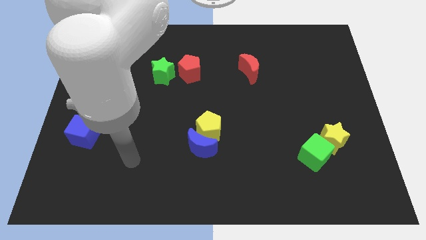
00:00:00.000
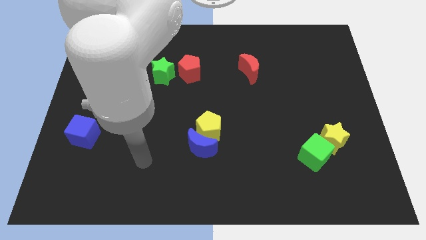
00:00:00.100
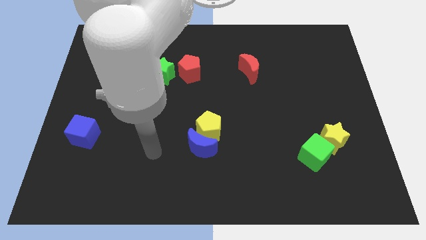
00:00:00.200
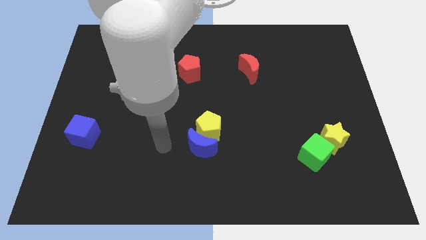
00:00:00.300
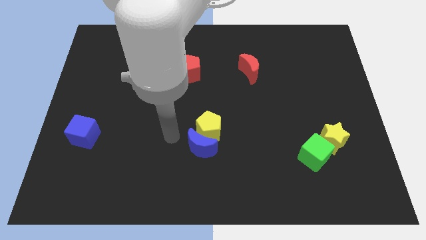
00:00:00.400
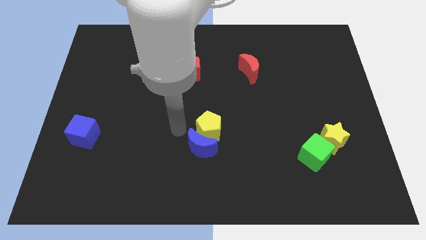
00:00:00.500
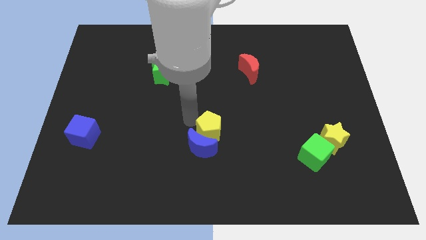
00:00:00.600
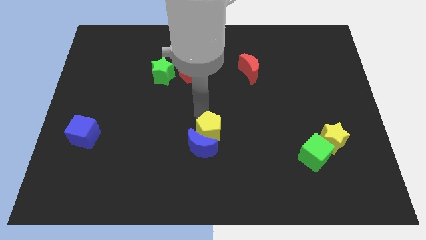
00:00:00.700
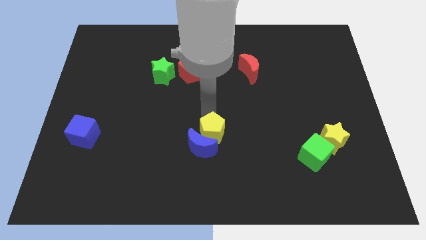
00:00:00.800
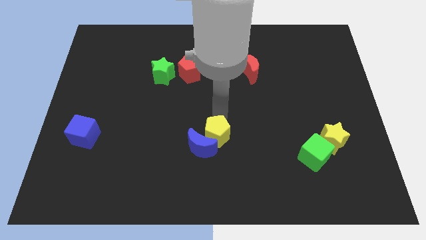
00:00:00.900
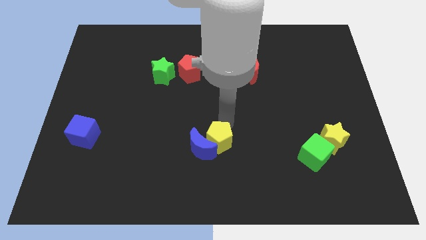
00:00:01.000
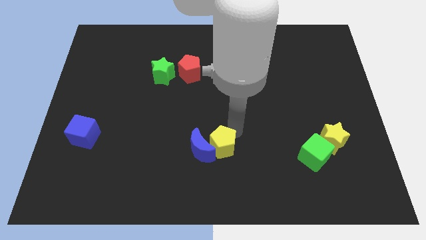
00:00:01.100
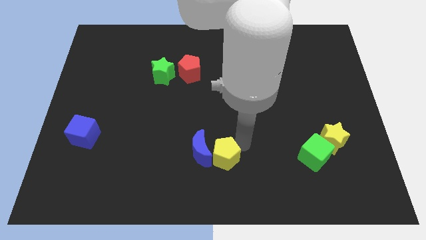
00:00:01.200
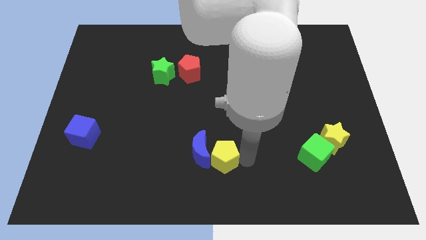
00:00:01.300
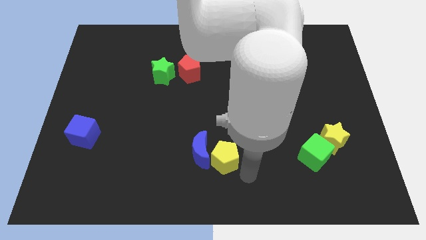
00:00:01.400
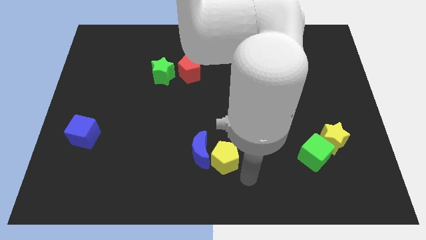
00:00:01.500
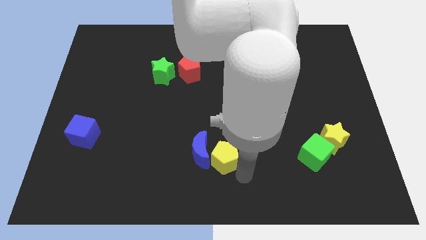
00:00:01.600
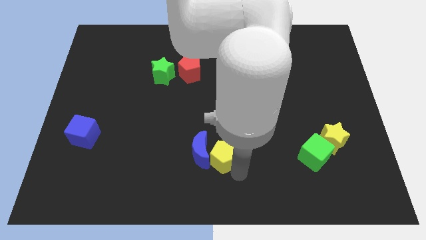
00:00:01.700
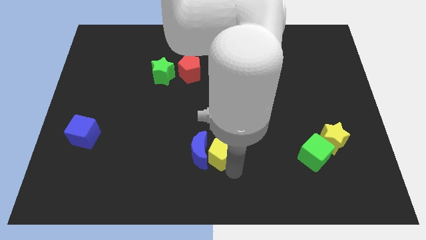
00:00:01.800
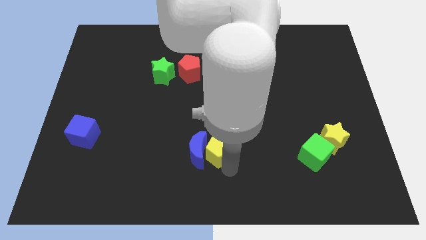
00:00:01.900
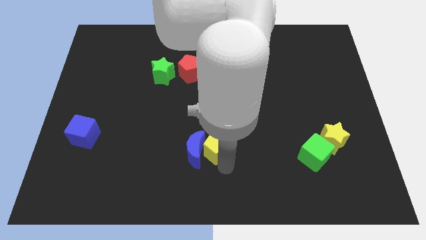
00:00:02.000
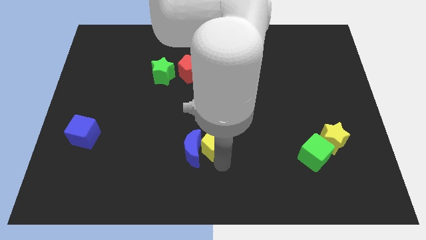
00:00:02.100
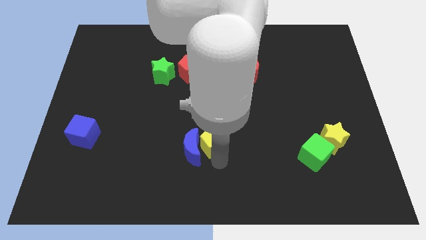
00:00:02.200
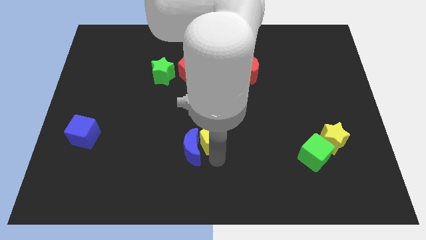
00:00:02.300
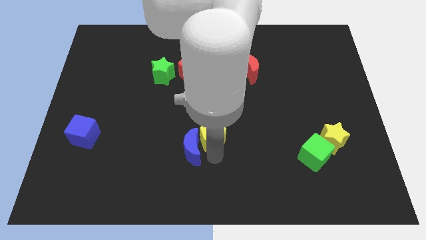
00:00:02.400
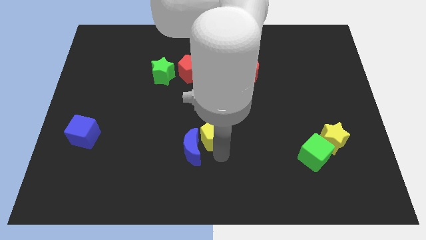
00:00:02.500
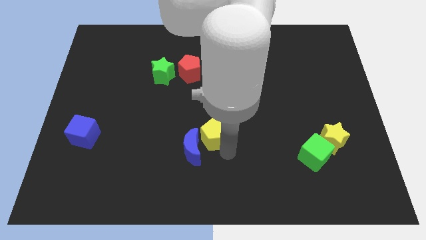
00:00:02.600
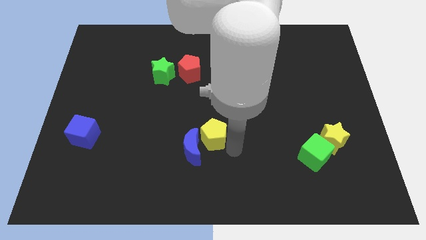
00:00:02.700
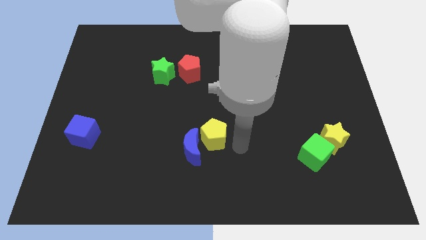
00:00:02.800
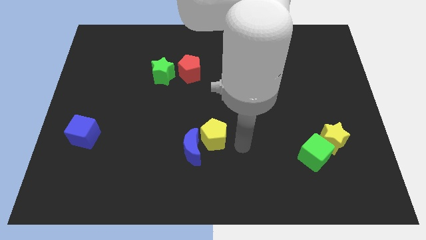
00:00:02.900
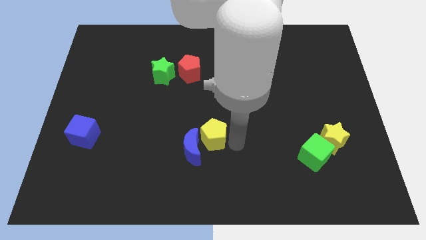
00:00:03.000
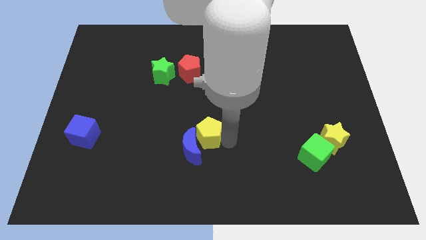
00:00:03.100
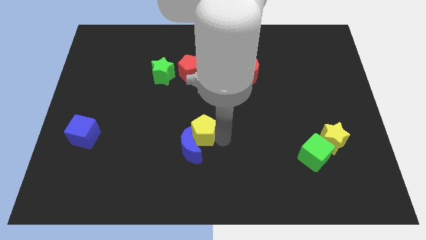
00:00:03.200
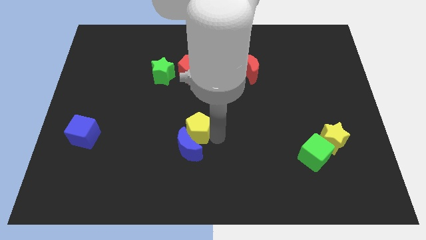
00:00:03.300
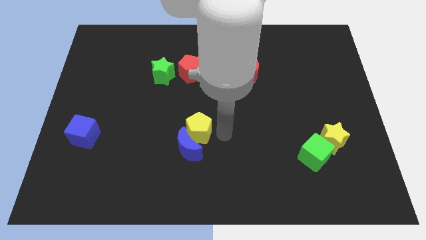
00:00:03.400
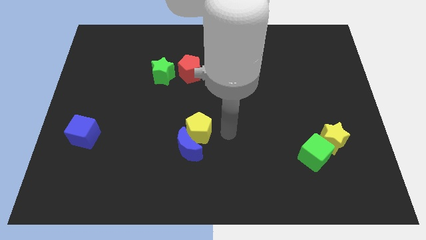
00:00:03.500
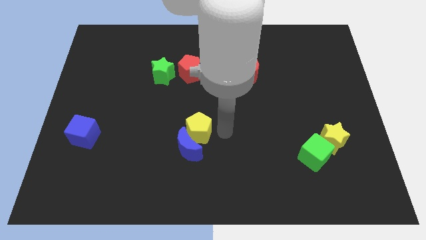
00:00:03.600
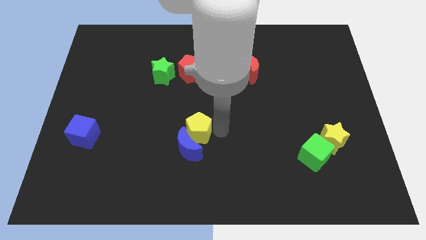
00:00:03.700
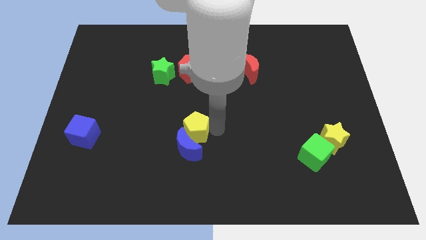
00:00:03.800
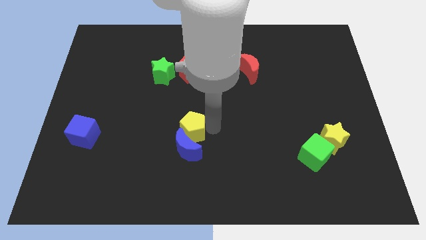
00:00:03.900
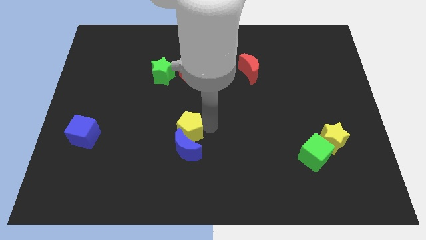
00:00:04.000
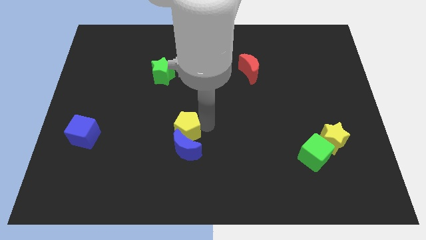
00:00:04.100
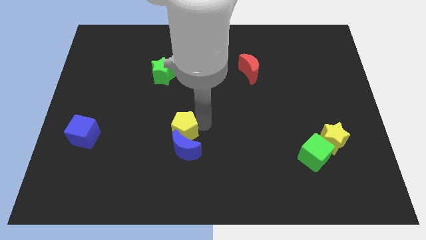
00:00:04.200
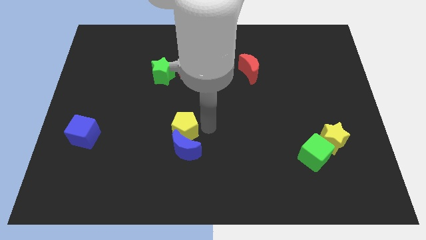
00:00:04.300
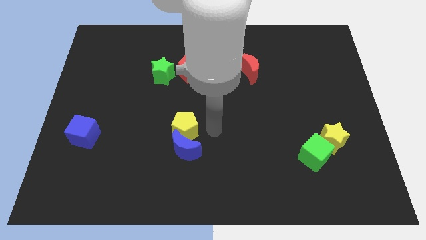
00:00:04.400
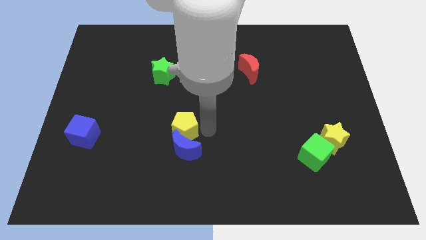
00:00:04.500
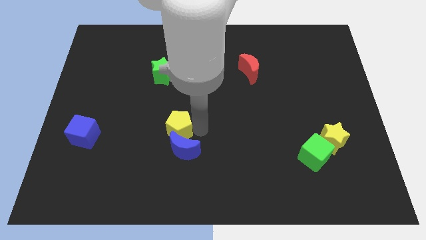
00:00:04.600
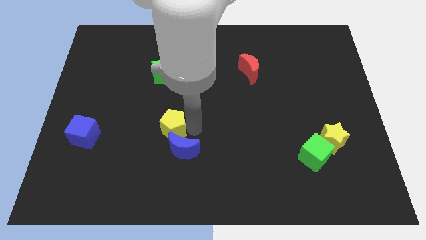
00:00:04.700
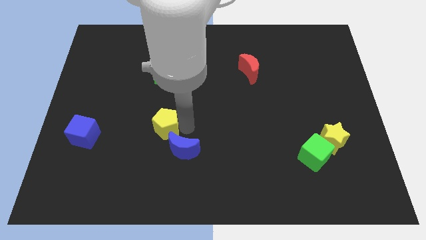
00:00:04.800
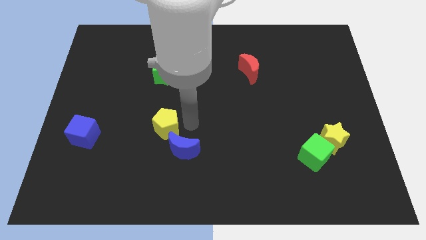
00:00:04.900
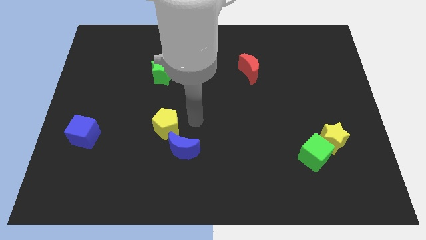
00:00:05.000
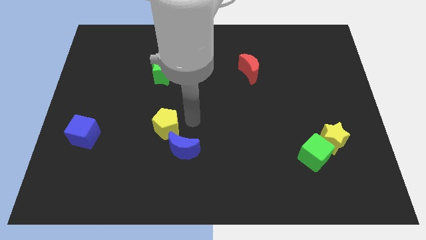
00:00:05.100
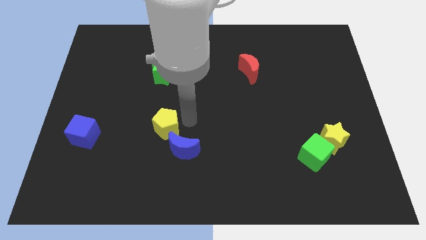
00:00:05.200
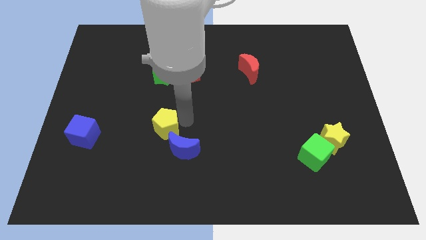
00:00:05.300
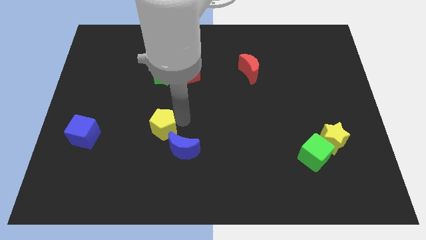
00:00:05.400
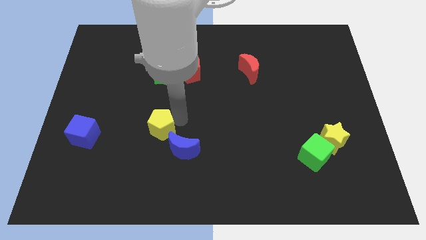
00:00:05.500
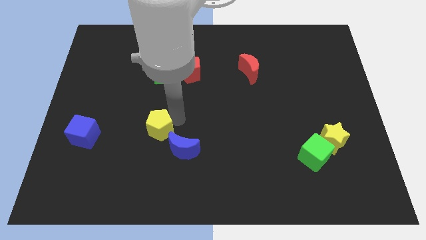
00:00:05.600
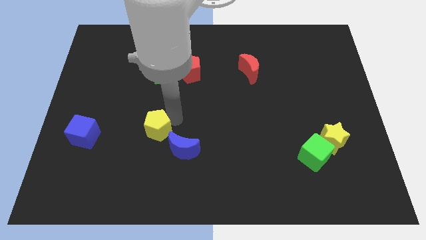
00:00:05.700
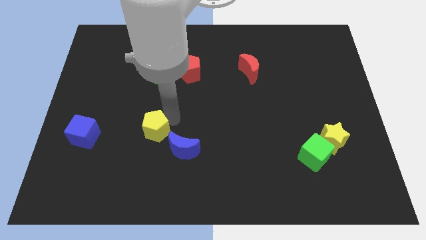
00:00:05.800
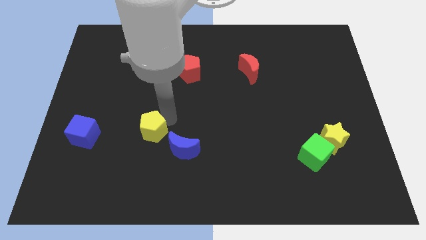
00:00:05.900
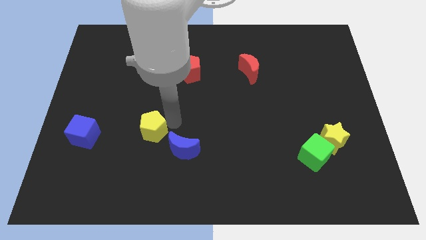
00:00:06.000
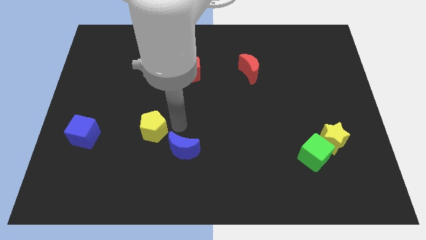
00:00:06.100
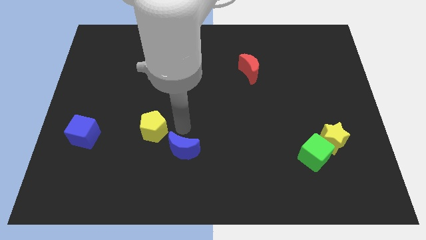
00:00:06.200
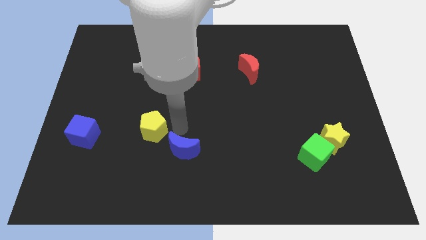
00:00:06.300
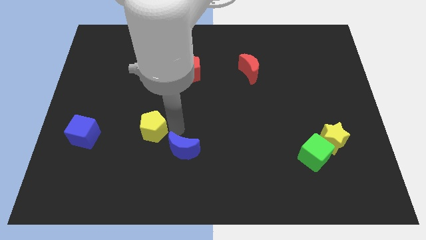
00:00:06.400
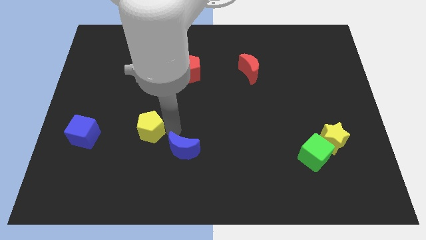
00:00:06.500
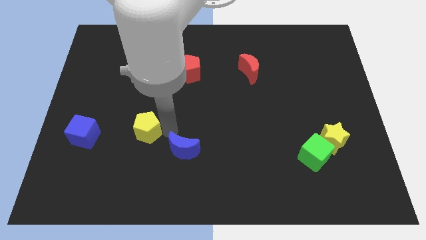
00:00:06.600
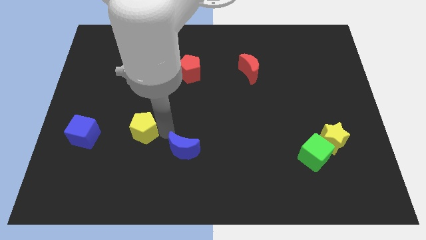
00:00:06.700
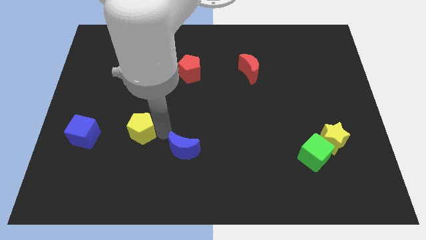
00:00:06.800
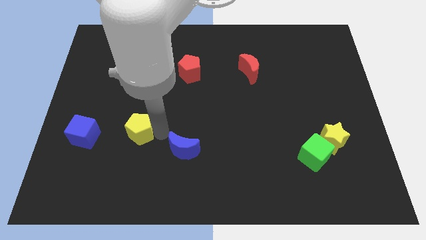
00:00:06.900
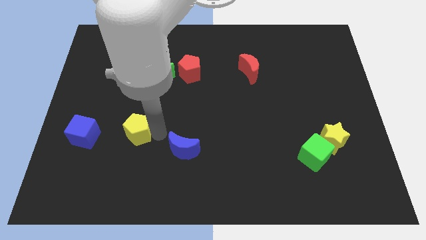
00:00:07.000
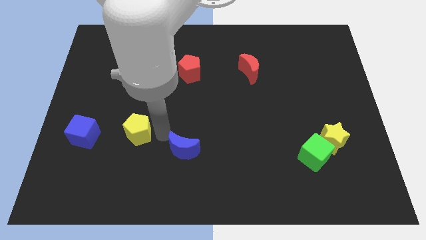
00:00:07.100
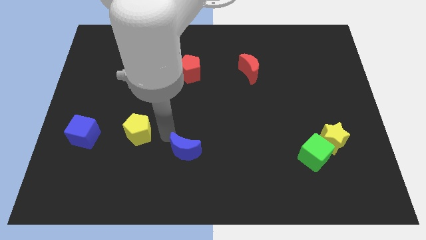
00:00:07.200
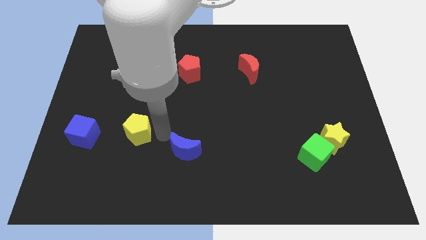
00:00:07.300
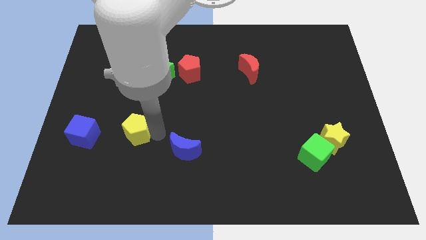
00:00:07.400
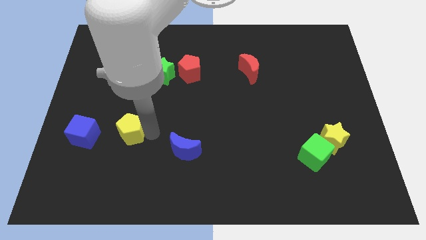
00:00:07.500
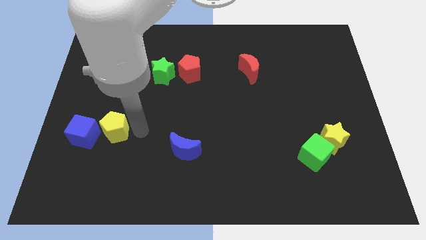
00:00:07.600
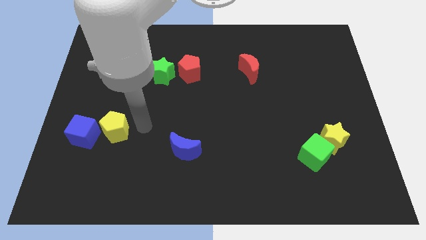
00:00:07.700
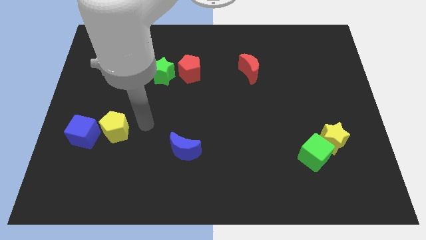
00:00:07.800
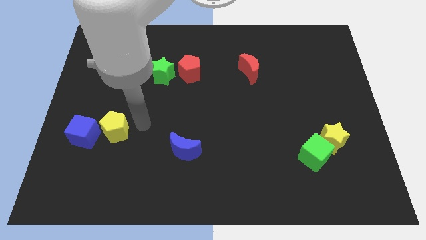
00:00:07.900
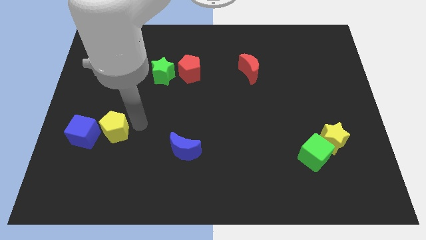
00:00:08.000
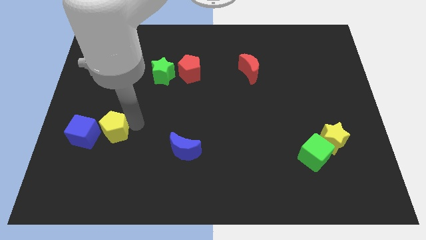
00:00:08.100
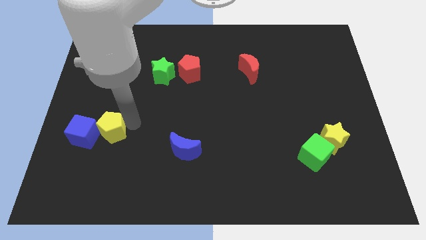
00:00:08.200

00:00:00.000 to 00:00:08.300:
slide the yellow pentagon towards the blue cube
